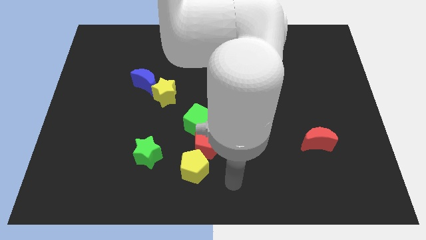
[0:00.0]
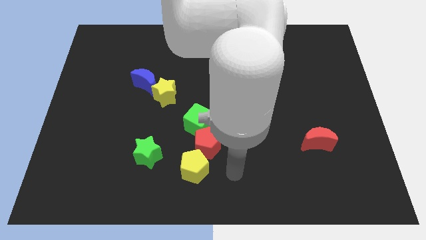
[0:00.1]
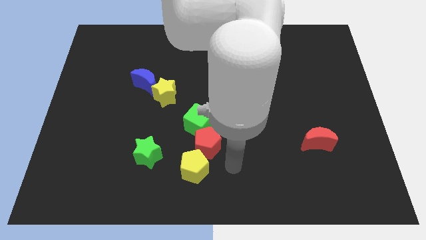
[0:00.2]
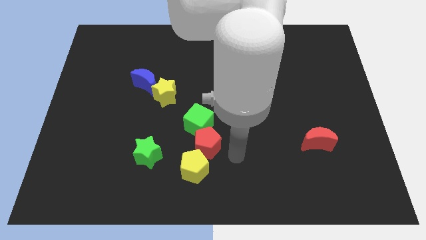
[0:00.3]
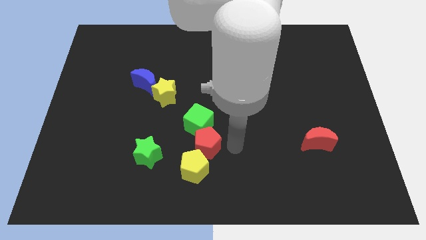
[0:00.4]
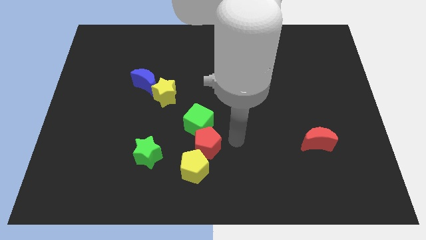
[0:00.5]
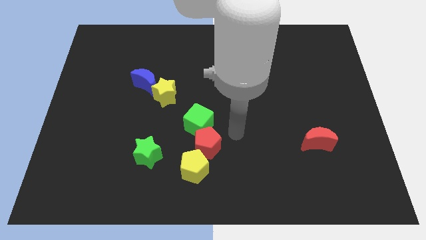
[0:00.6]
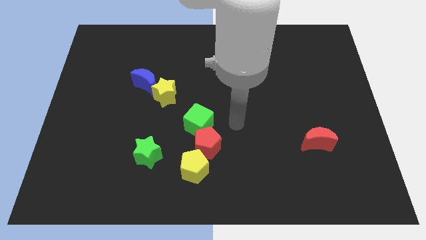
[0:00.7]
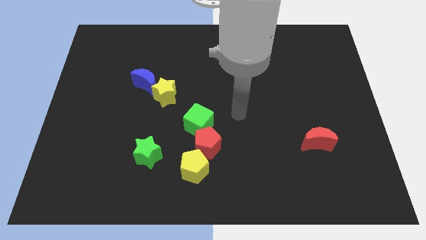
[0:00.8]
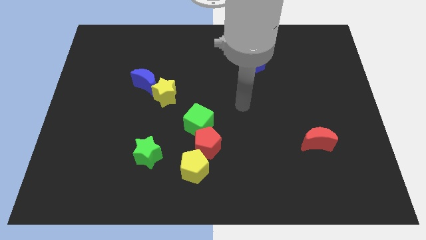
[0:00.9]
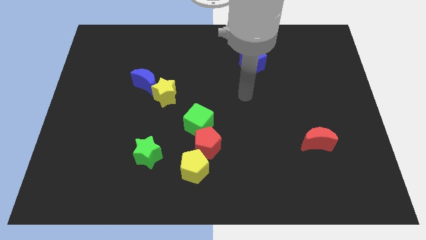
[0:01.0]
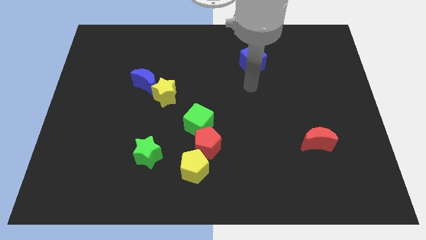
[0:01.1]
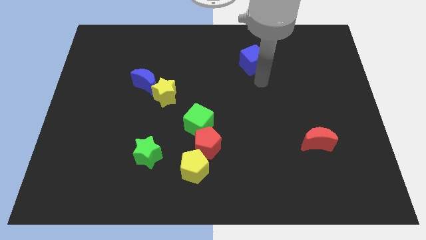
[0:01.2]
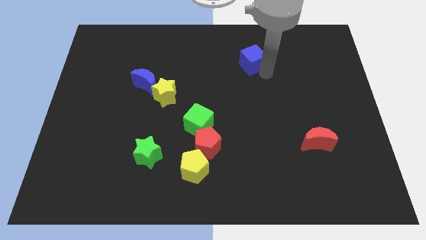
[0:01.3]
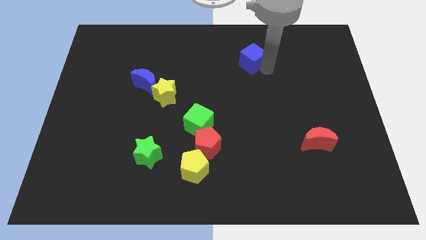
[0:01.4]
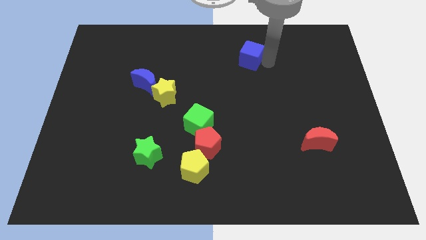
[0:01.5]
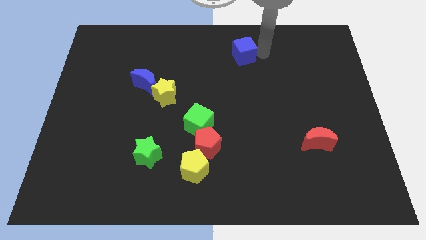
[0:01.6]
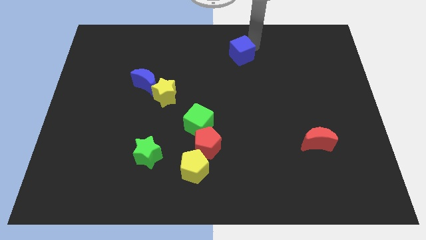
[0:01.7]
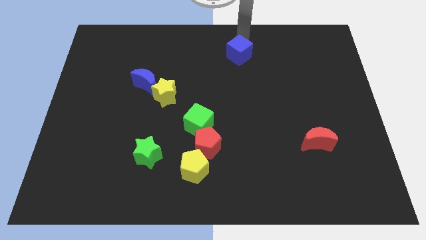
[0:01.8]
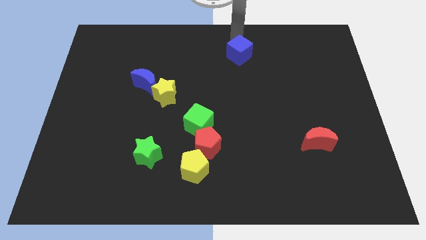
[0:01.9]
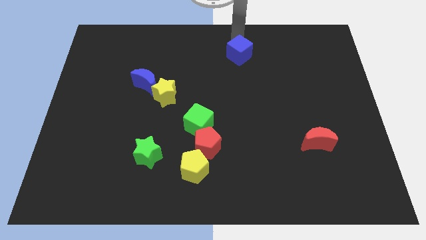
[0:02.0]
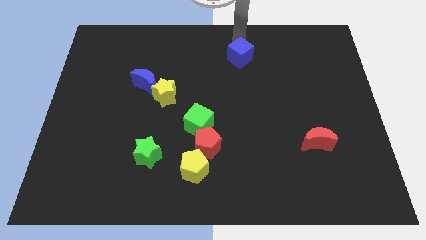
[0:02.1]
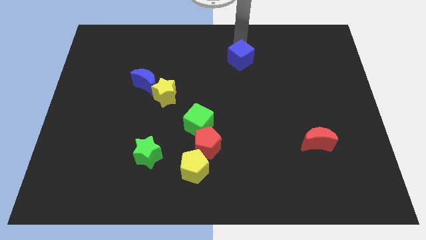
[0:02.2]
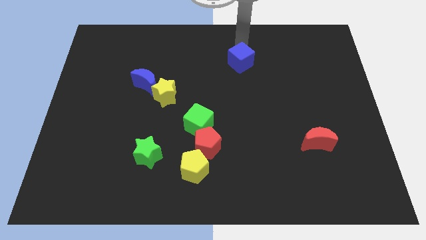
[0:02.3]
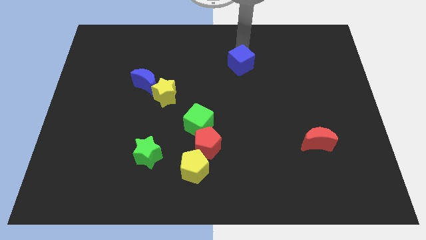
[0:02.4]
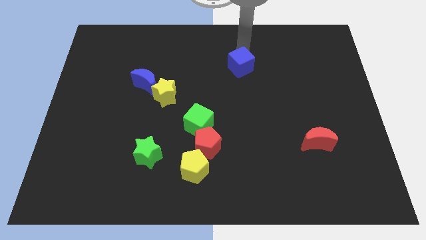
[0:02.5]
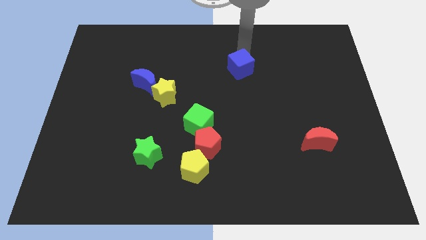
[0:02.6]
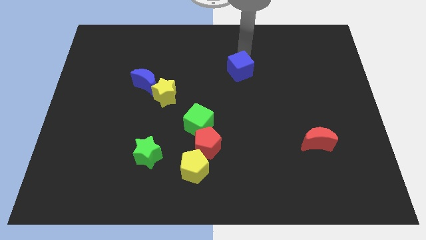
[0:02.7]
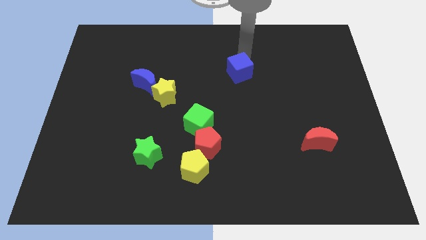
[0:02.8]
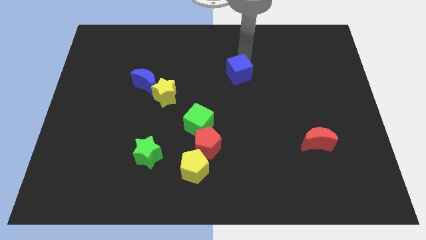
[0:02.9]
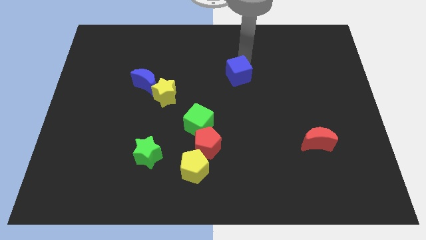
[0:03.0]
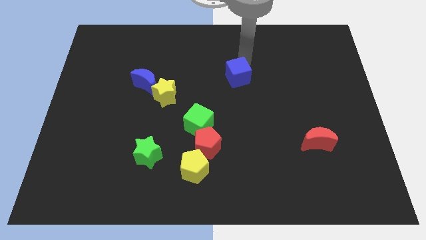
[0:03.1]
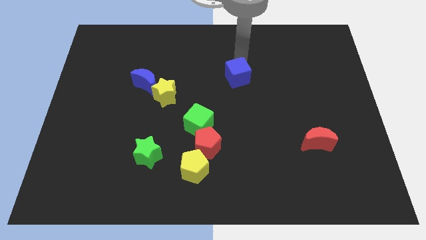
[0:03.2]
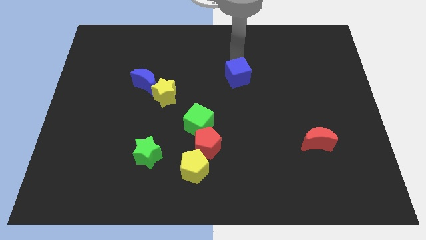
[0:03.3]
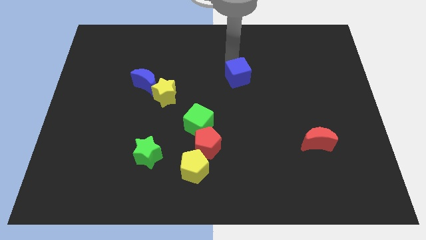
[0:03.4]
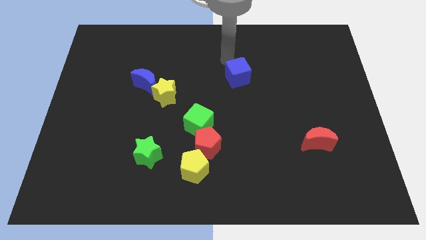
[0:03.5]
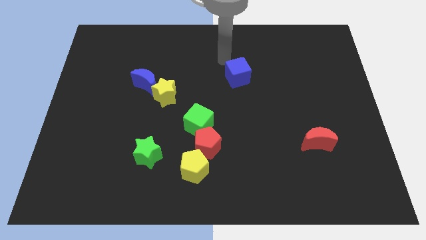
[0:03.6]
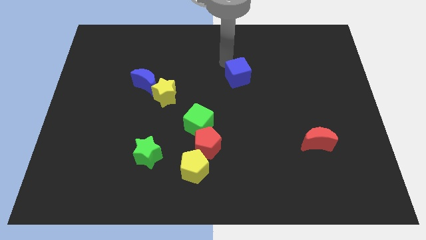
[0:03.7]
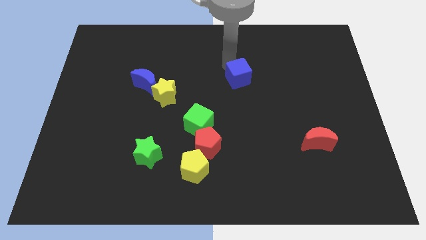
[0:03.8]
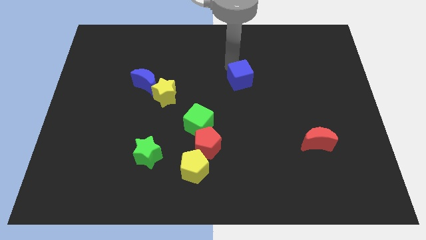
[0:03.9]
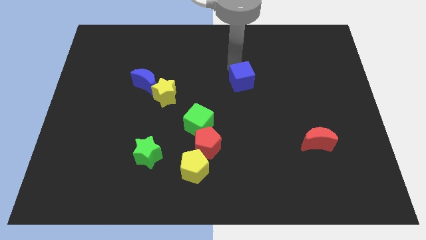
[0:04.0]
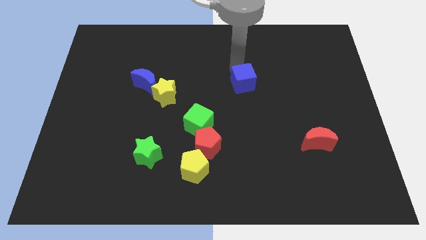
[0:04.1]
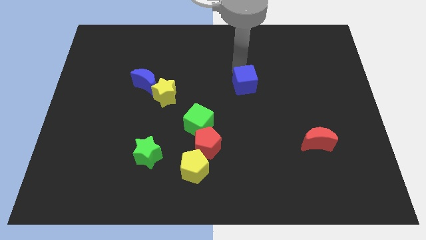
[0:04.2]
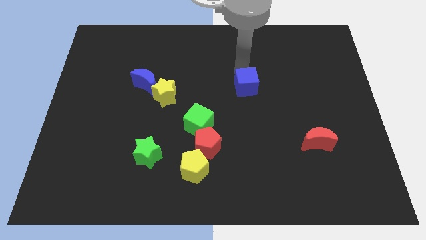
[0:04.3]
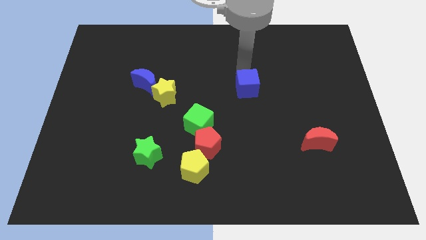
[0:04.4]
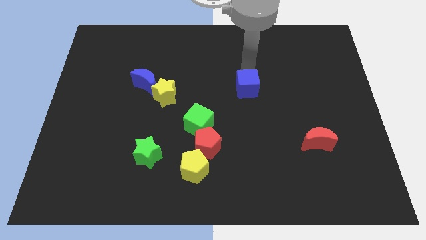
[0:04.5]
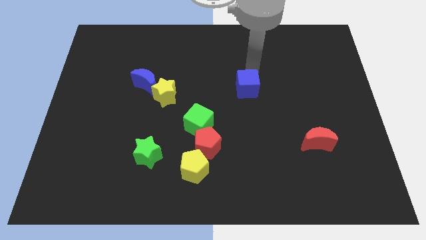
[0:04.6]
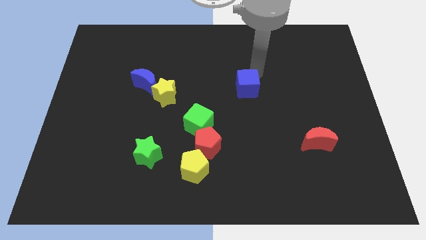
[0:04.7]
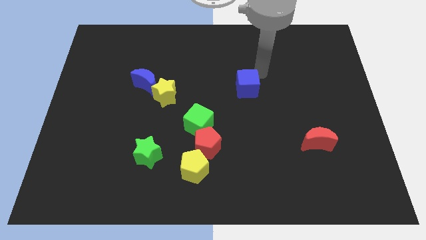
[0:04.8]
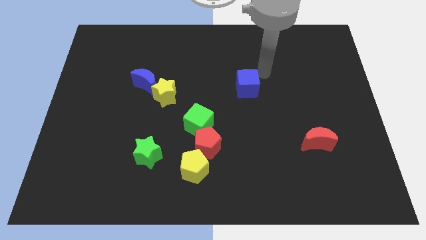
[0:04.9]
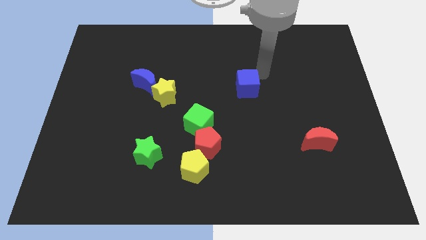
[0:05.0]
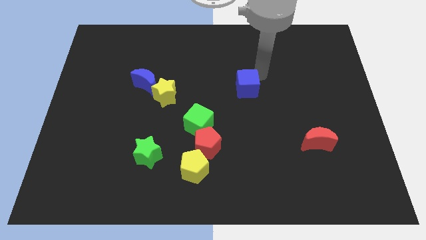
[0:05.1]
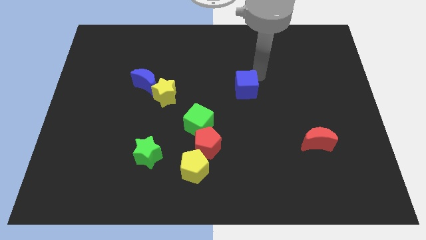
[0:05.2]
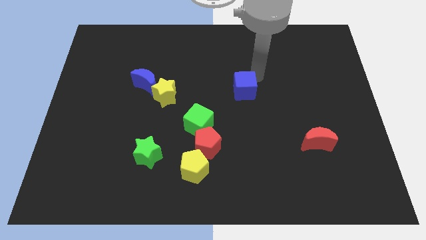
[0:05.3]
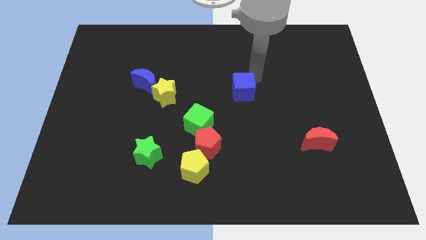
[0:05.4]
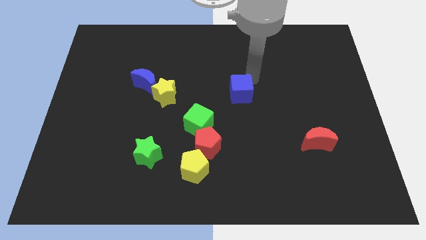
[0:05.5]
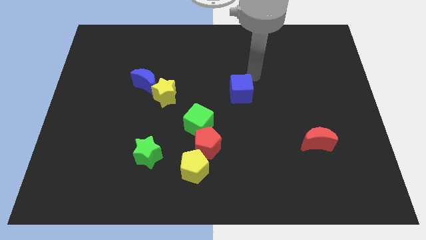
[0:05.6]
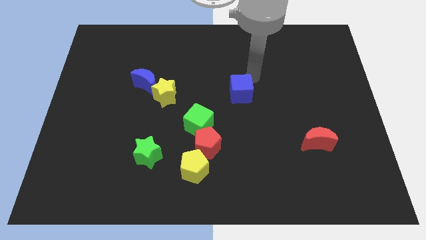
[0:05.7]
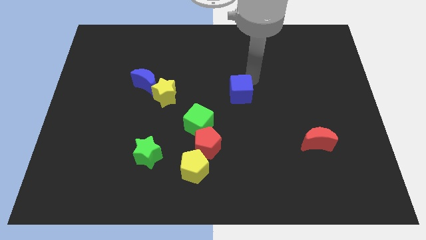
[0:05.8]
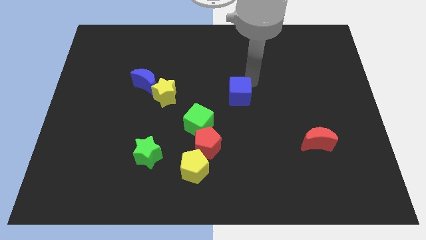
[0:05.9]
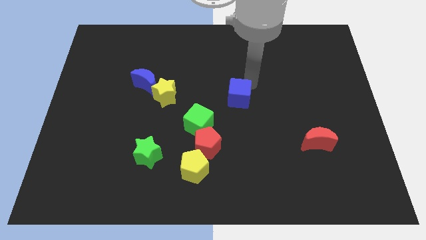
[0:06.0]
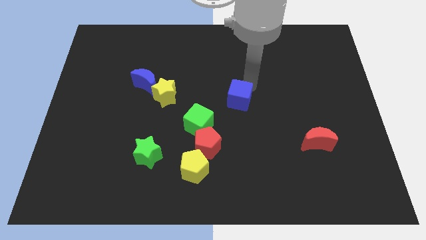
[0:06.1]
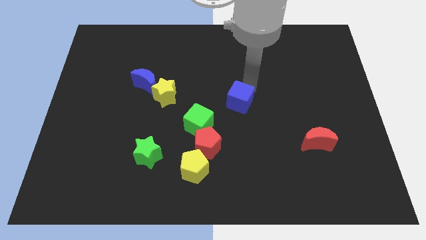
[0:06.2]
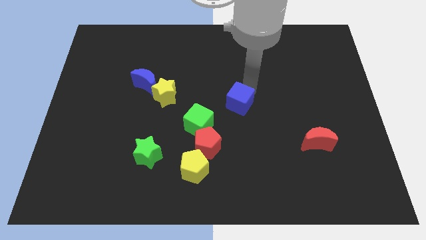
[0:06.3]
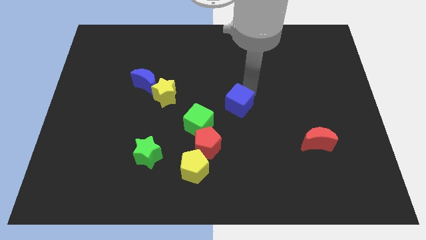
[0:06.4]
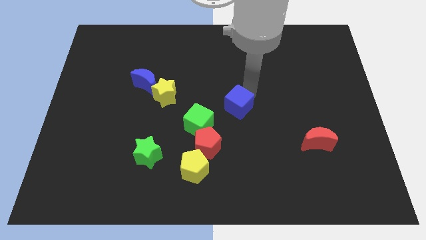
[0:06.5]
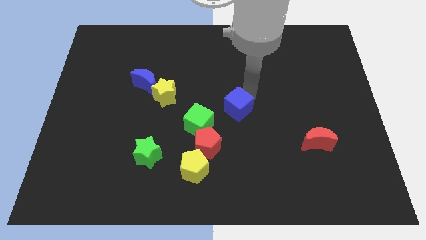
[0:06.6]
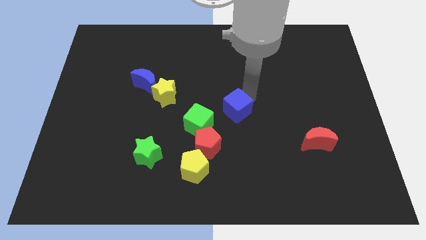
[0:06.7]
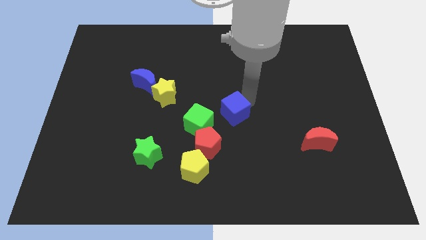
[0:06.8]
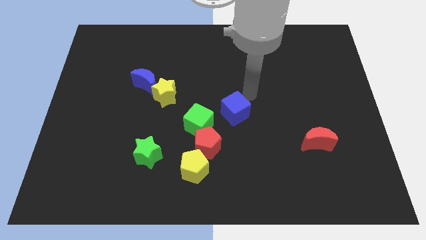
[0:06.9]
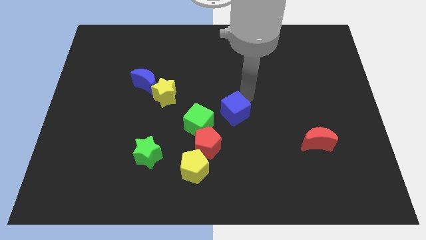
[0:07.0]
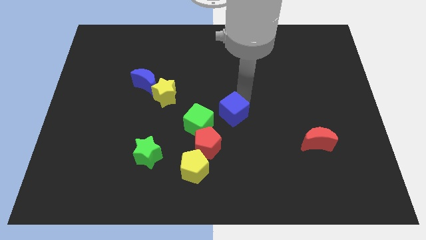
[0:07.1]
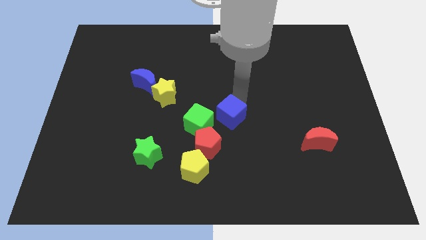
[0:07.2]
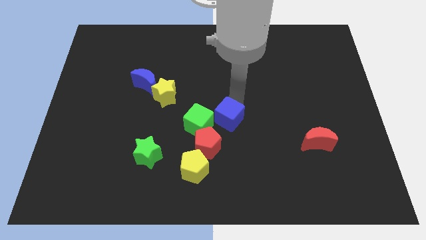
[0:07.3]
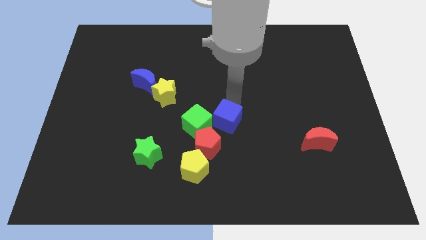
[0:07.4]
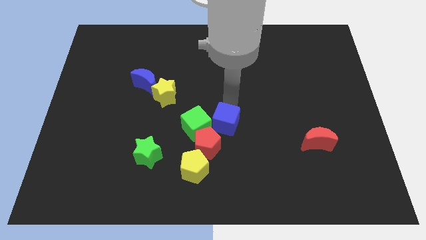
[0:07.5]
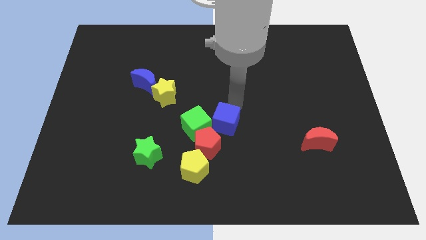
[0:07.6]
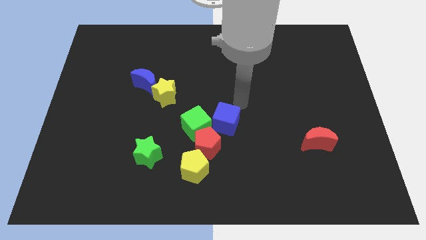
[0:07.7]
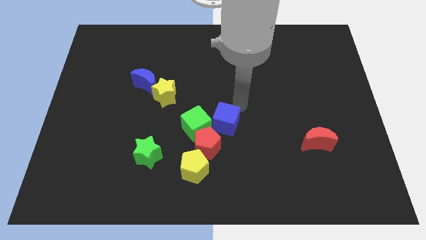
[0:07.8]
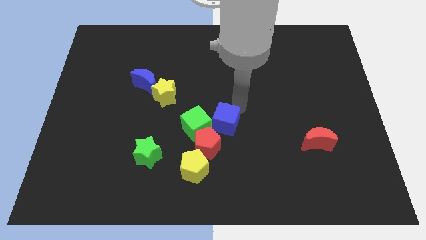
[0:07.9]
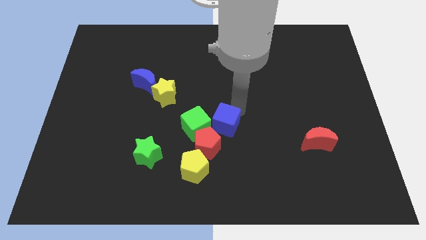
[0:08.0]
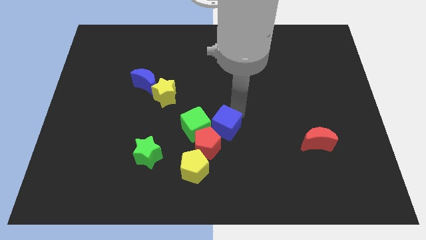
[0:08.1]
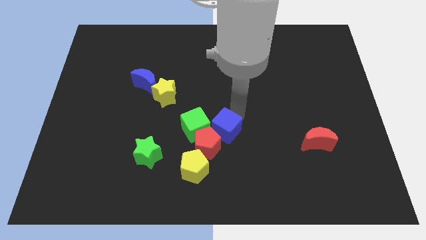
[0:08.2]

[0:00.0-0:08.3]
slide the blue cube to the red pentagon
